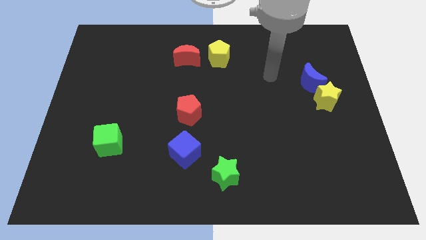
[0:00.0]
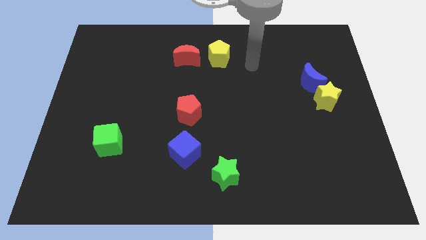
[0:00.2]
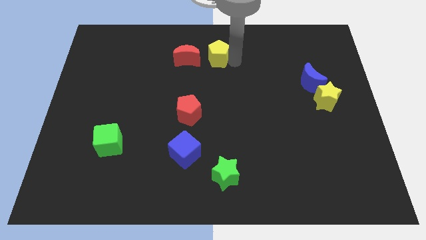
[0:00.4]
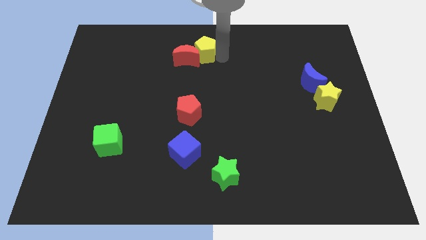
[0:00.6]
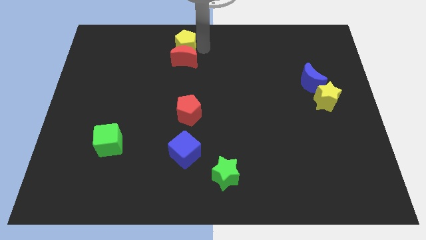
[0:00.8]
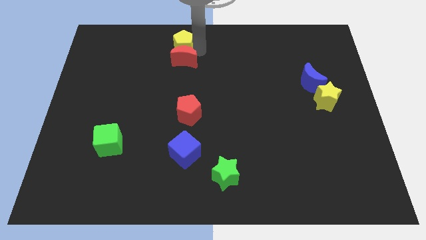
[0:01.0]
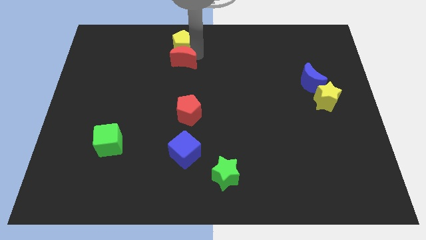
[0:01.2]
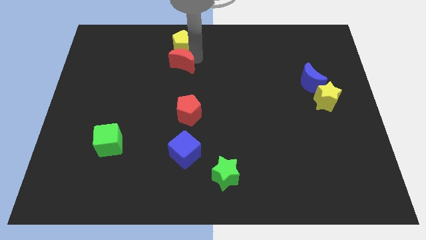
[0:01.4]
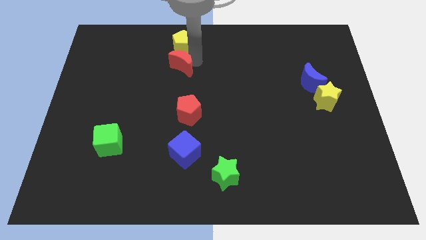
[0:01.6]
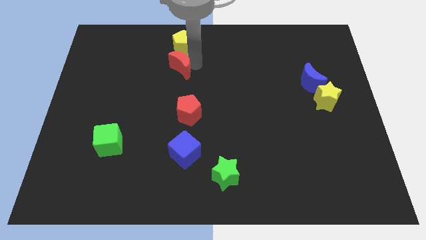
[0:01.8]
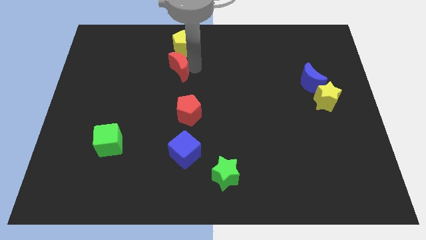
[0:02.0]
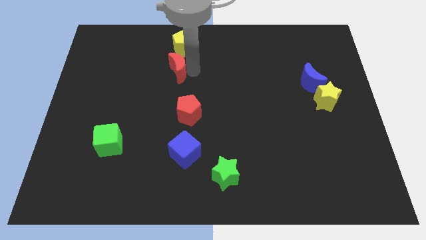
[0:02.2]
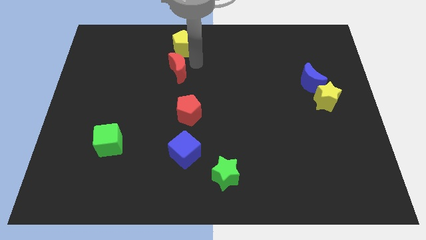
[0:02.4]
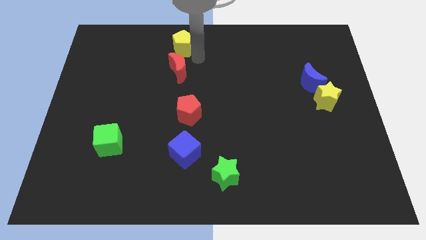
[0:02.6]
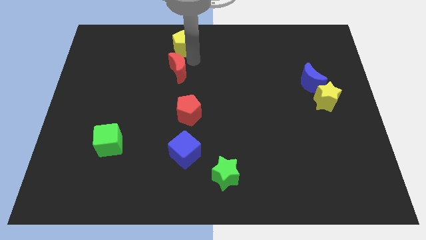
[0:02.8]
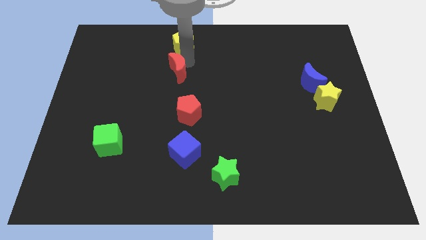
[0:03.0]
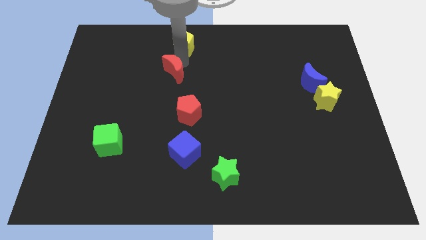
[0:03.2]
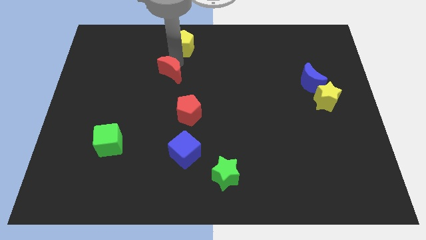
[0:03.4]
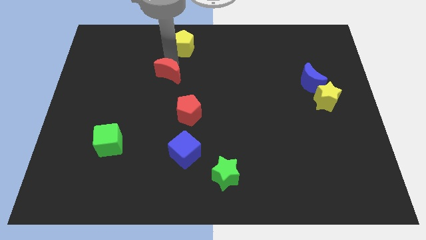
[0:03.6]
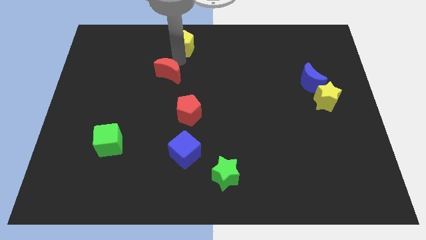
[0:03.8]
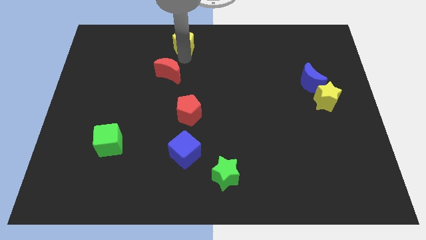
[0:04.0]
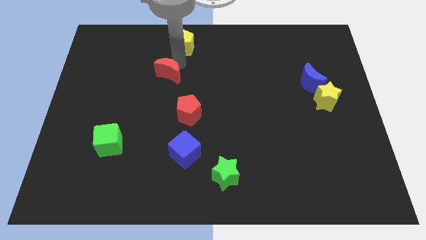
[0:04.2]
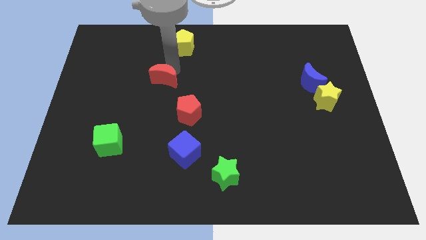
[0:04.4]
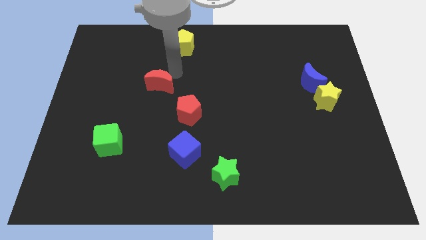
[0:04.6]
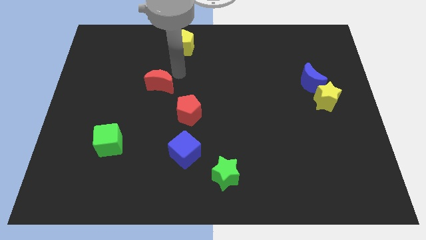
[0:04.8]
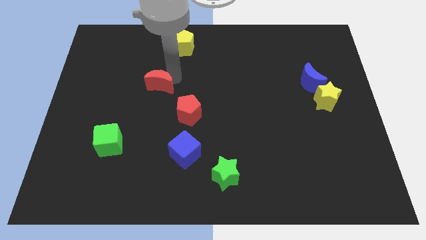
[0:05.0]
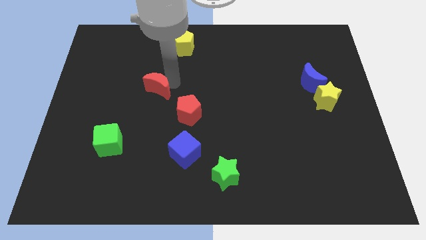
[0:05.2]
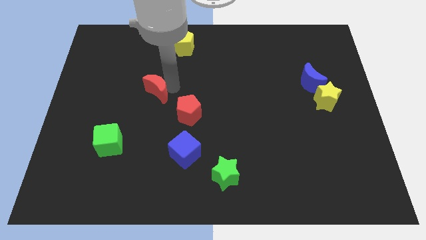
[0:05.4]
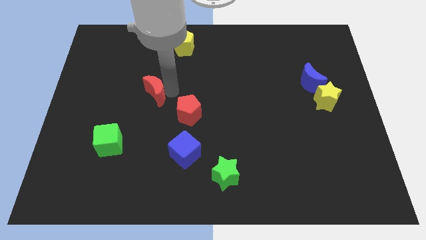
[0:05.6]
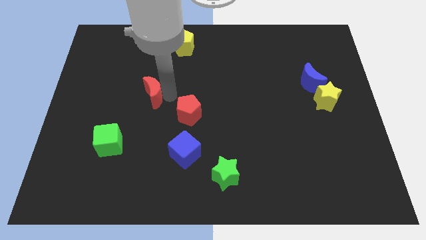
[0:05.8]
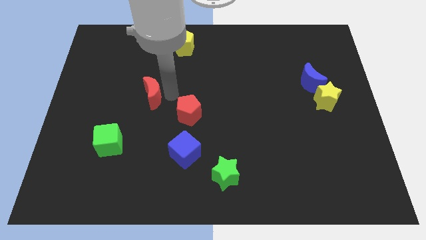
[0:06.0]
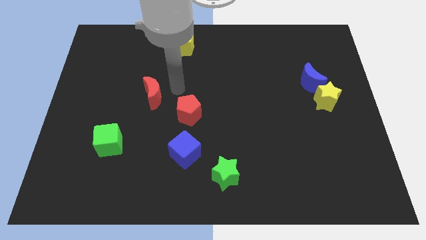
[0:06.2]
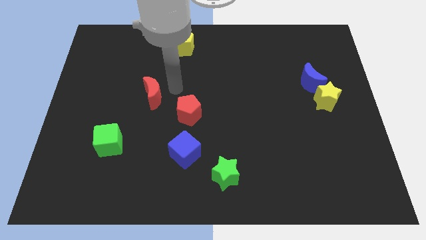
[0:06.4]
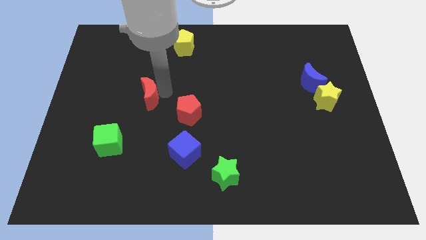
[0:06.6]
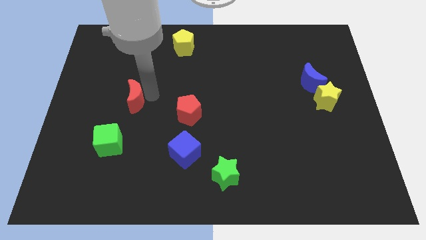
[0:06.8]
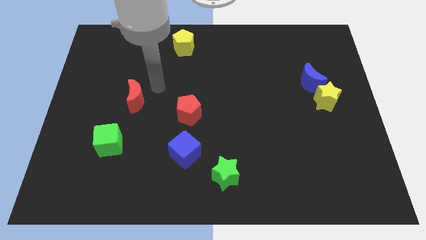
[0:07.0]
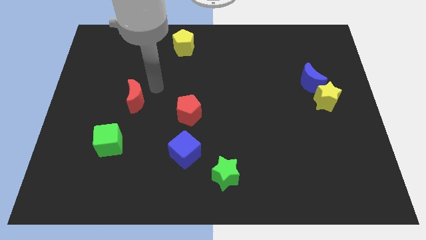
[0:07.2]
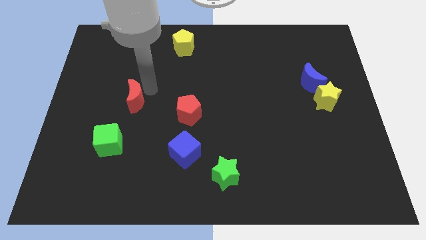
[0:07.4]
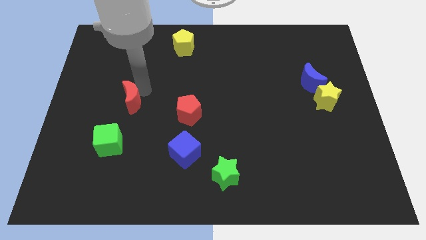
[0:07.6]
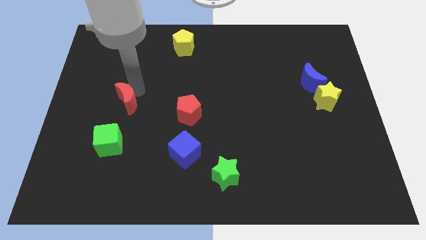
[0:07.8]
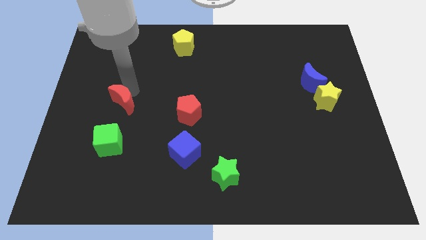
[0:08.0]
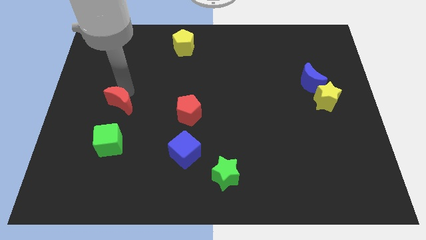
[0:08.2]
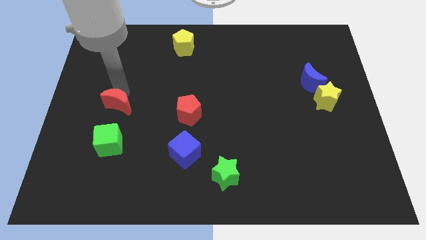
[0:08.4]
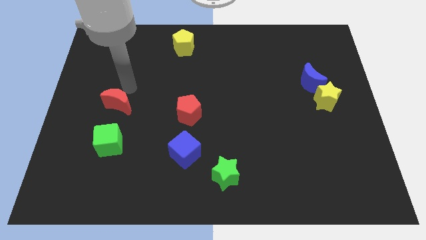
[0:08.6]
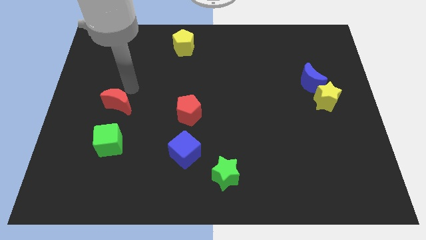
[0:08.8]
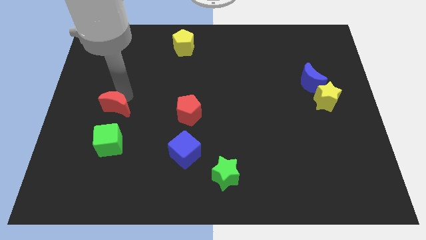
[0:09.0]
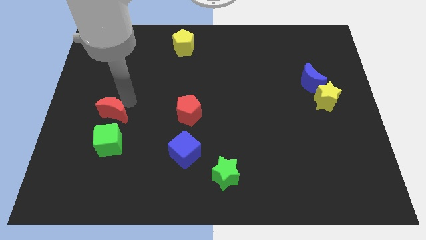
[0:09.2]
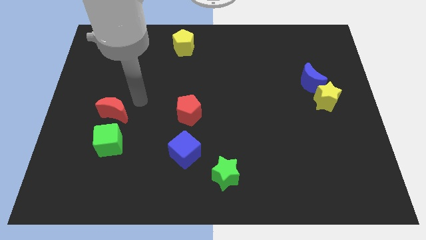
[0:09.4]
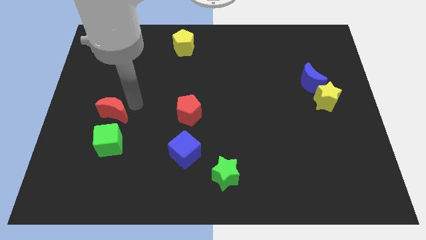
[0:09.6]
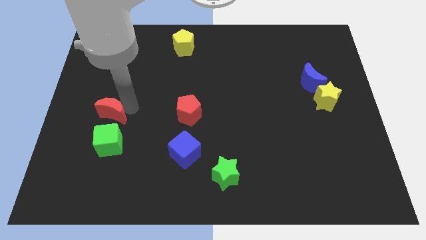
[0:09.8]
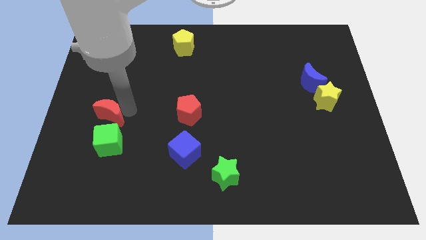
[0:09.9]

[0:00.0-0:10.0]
slide the red moon diagonally up and to the left of the green cube

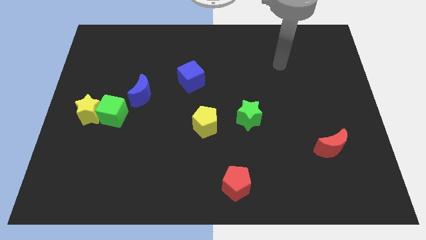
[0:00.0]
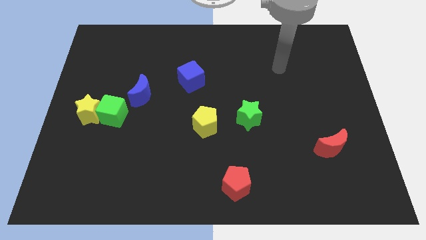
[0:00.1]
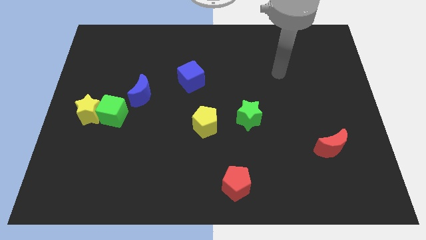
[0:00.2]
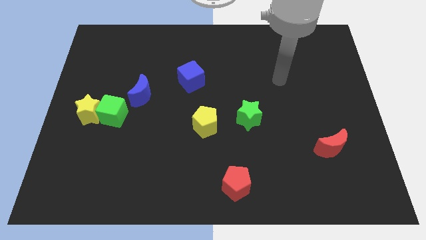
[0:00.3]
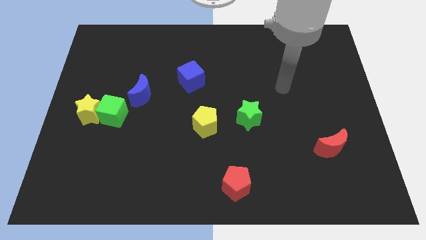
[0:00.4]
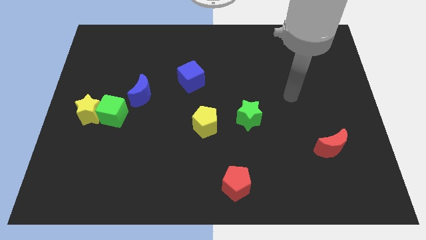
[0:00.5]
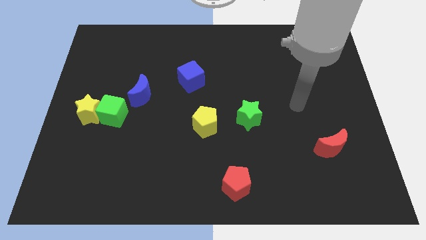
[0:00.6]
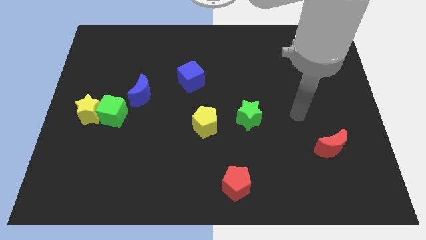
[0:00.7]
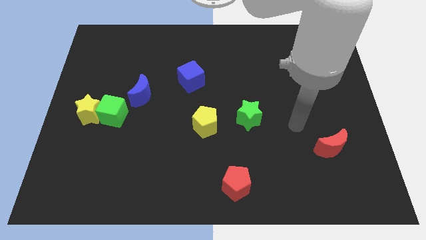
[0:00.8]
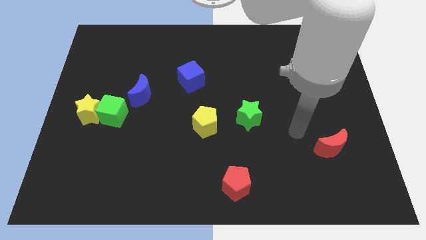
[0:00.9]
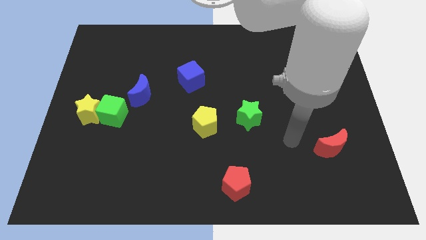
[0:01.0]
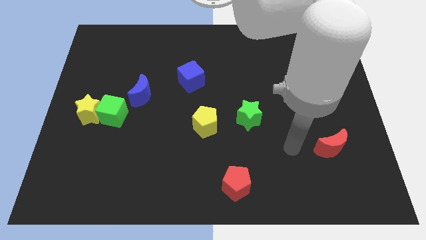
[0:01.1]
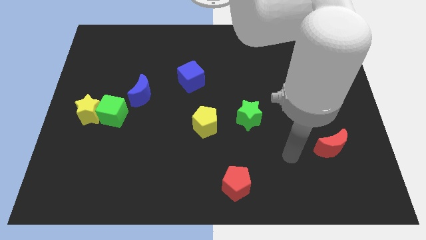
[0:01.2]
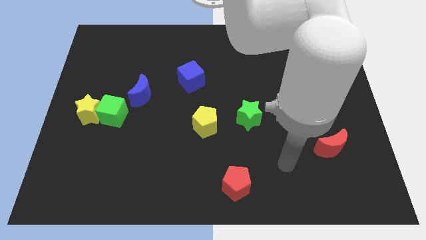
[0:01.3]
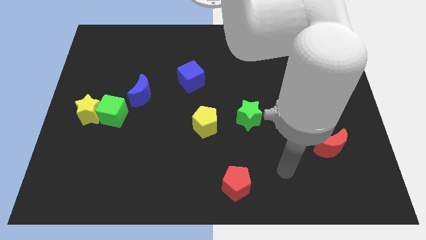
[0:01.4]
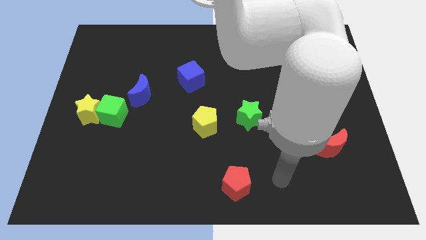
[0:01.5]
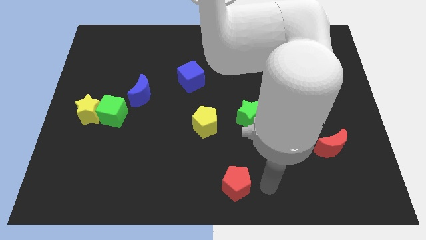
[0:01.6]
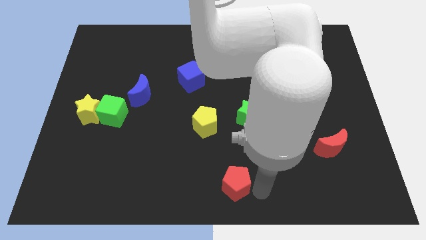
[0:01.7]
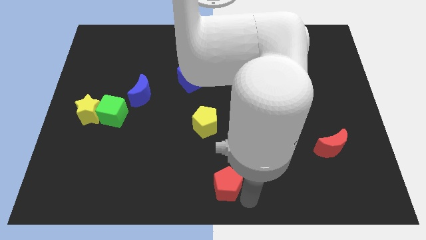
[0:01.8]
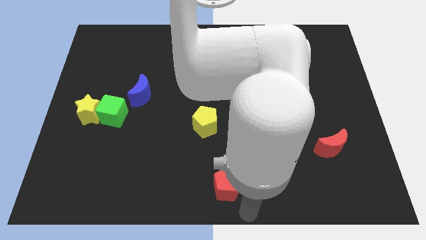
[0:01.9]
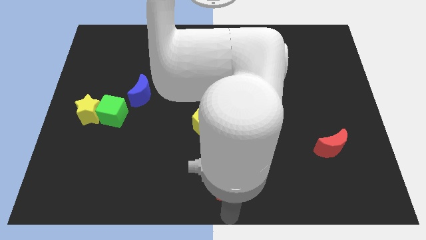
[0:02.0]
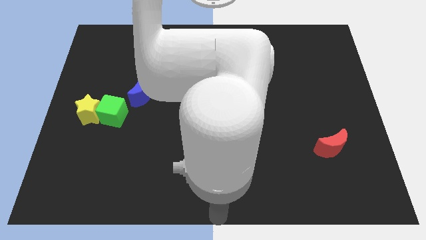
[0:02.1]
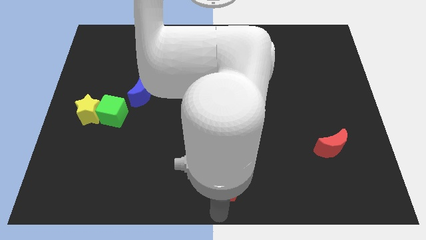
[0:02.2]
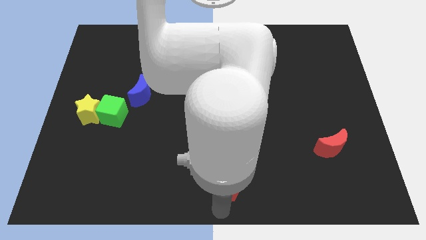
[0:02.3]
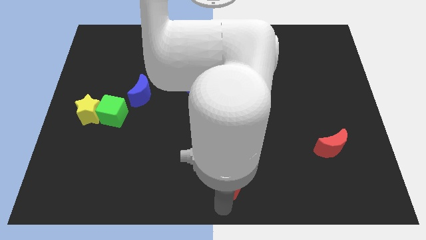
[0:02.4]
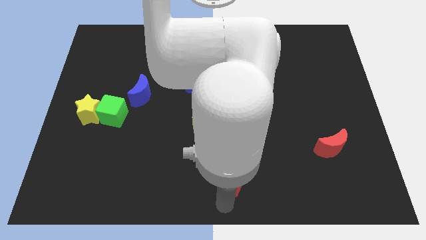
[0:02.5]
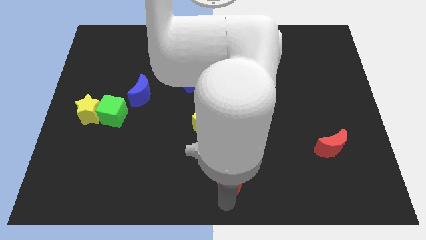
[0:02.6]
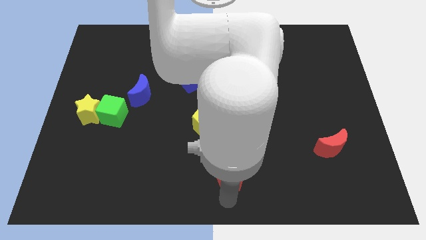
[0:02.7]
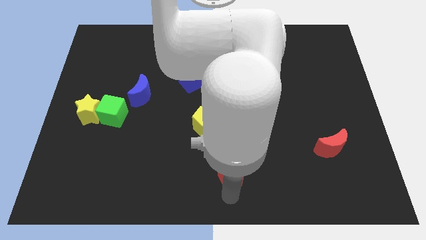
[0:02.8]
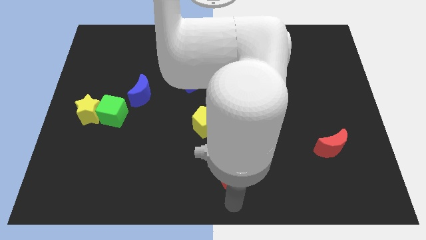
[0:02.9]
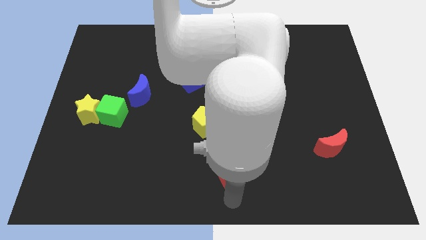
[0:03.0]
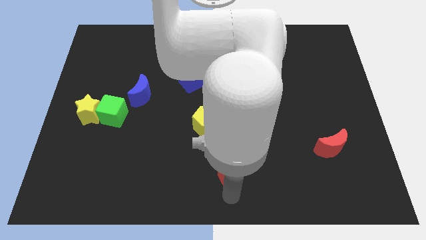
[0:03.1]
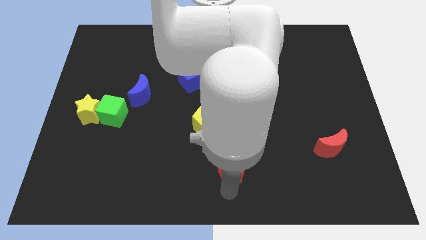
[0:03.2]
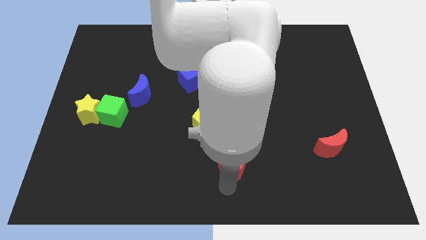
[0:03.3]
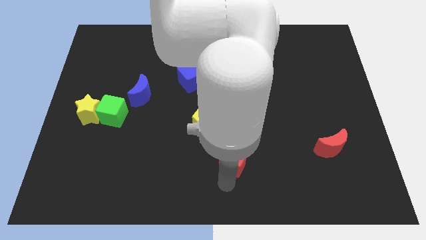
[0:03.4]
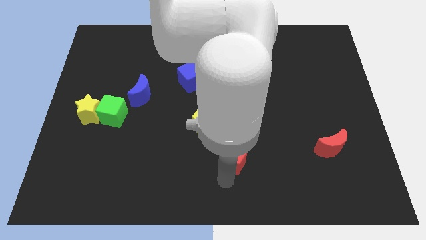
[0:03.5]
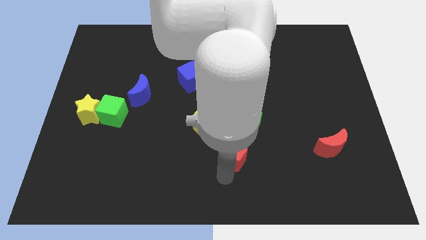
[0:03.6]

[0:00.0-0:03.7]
push the red pentagon to the bottom left of the green star
